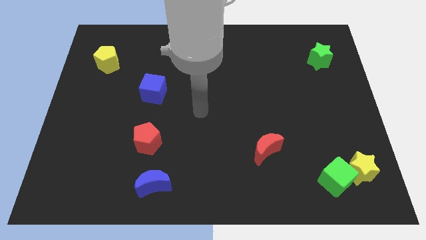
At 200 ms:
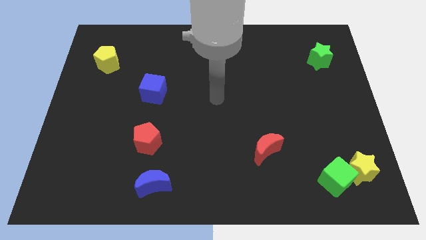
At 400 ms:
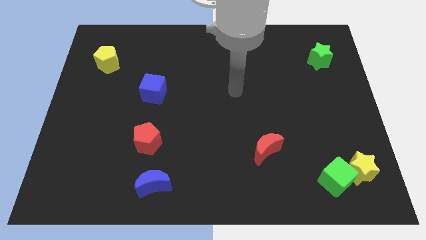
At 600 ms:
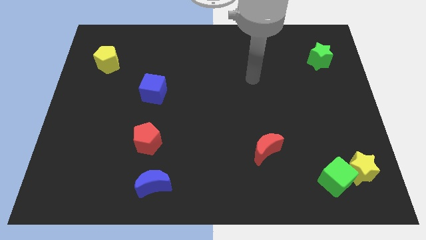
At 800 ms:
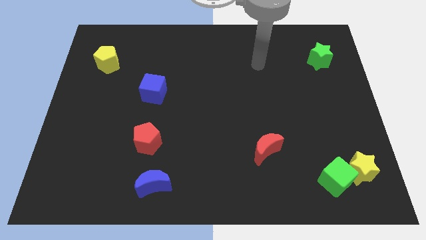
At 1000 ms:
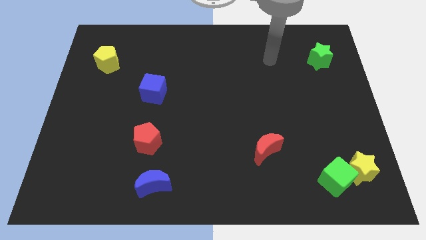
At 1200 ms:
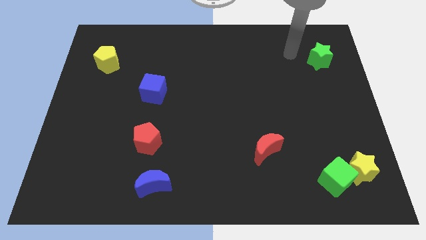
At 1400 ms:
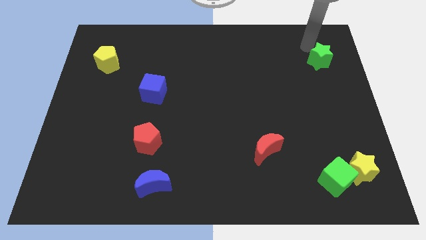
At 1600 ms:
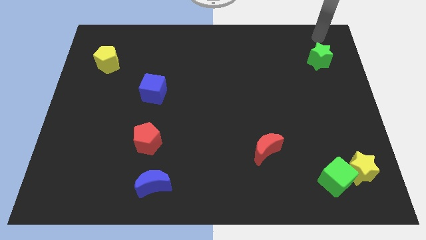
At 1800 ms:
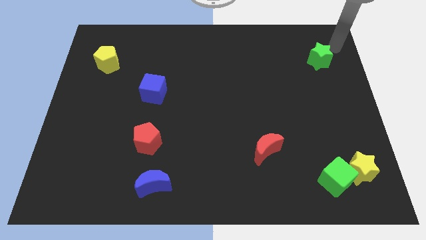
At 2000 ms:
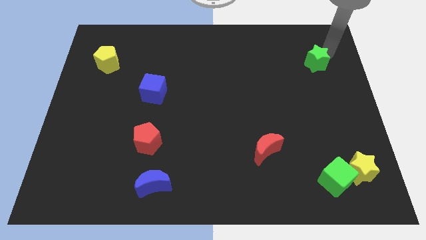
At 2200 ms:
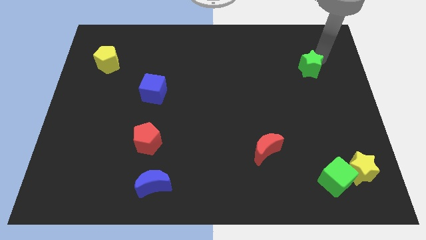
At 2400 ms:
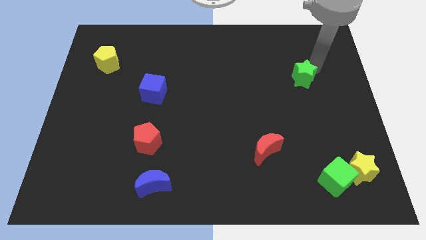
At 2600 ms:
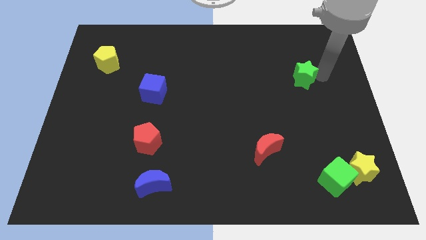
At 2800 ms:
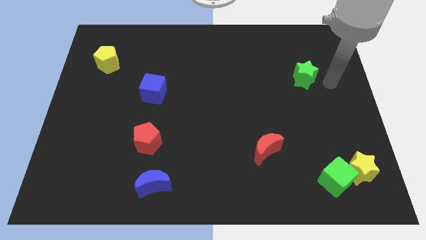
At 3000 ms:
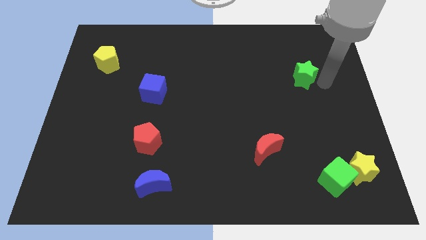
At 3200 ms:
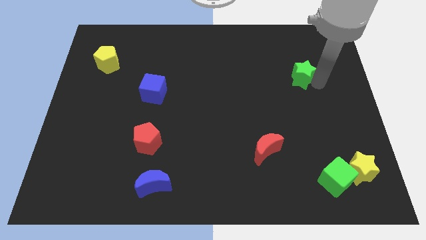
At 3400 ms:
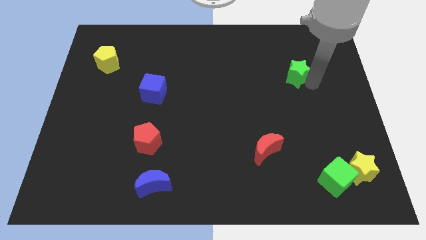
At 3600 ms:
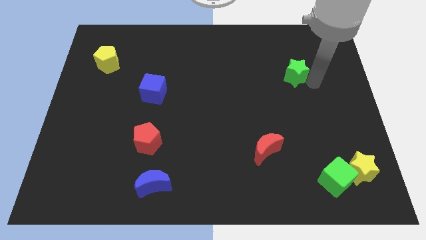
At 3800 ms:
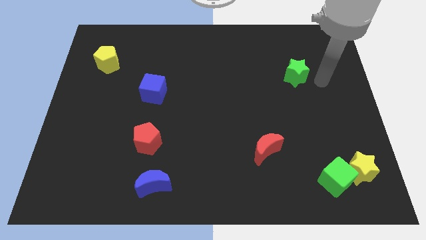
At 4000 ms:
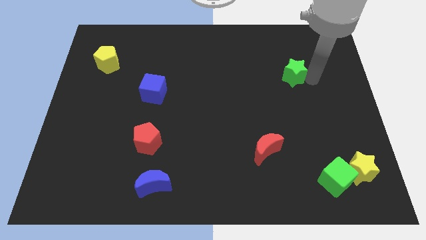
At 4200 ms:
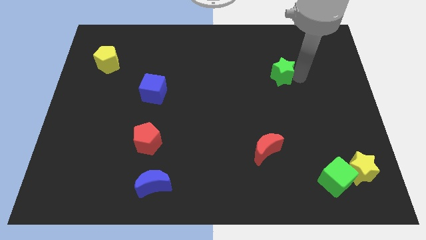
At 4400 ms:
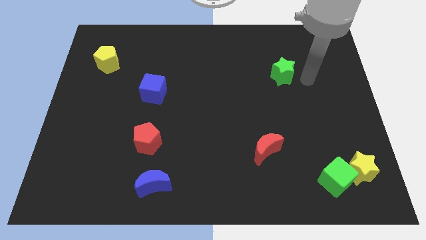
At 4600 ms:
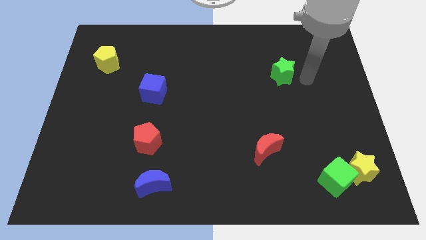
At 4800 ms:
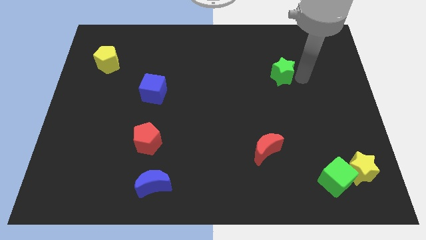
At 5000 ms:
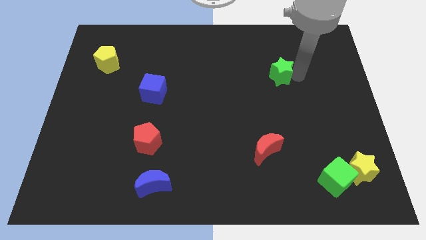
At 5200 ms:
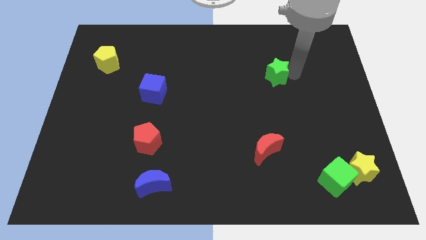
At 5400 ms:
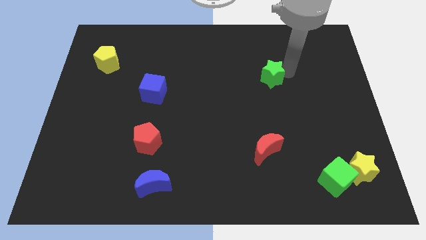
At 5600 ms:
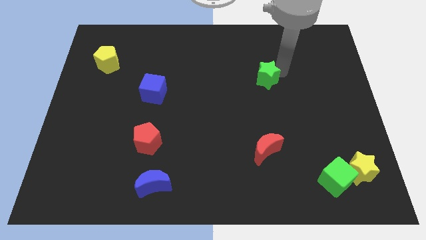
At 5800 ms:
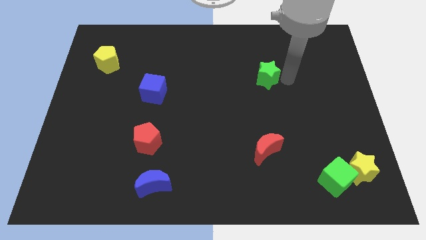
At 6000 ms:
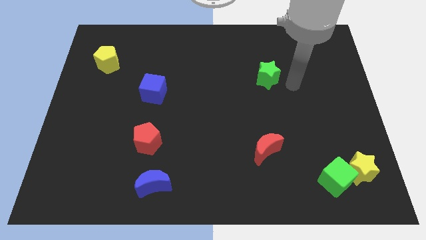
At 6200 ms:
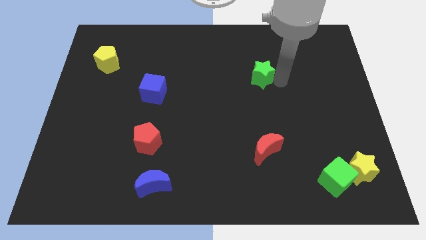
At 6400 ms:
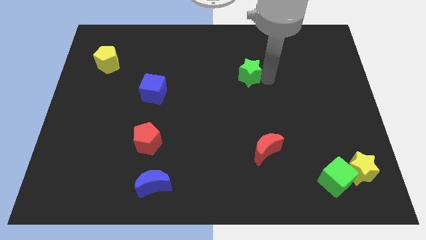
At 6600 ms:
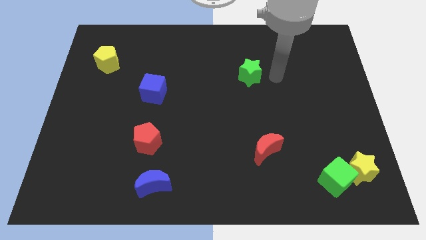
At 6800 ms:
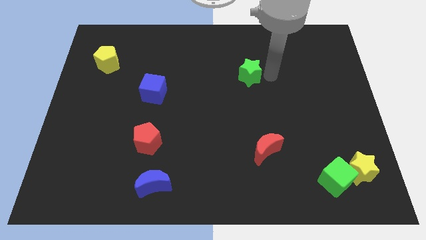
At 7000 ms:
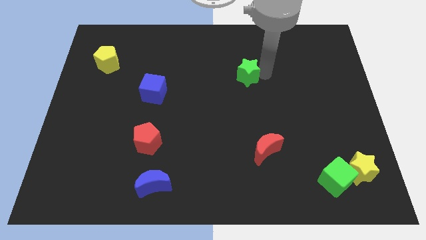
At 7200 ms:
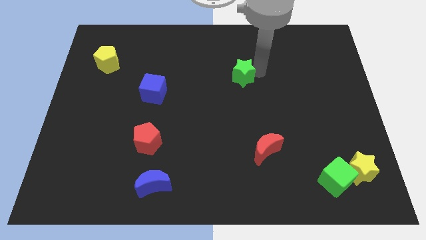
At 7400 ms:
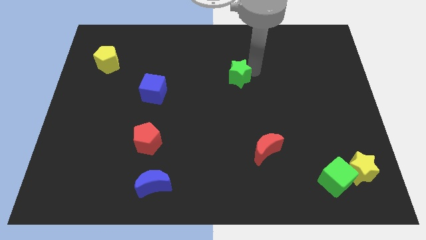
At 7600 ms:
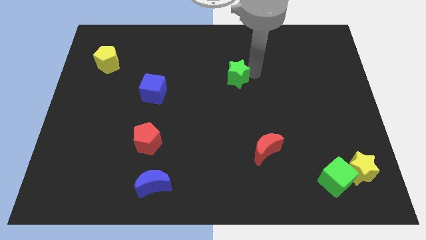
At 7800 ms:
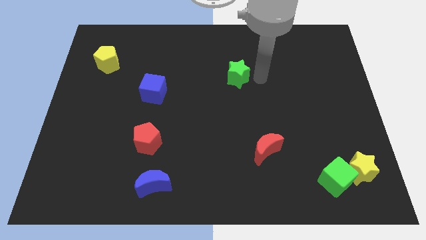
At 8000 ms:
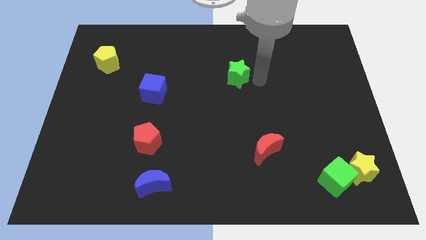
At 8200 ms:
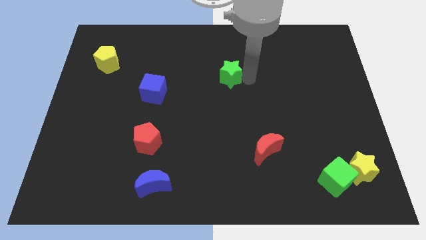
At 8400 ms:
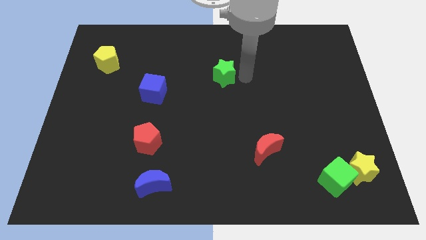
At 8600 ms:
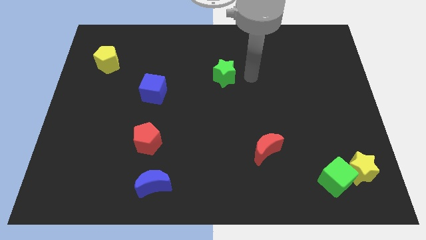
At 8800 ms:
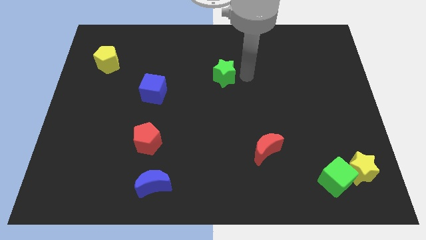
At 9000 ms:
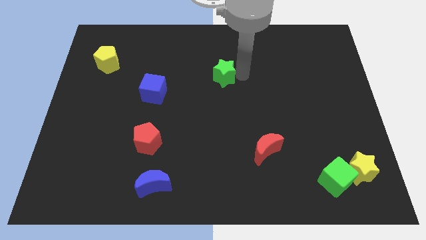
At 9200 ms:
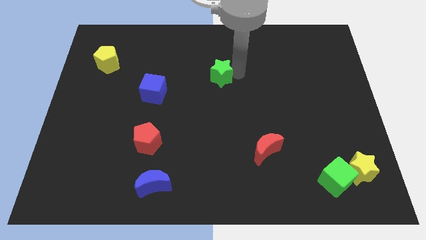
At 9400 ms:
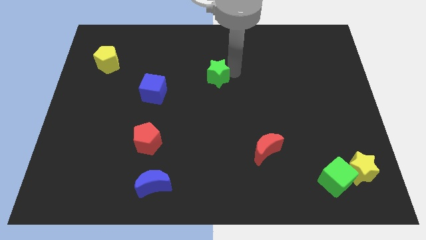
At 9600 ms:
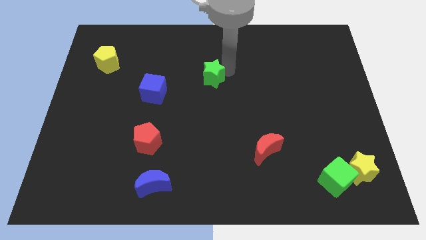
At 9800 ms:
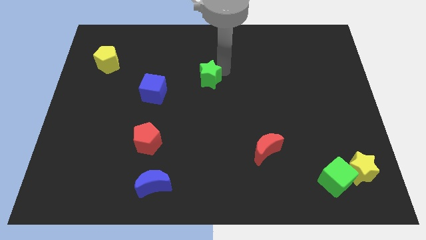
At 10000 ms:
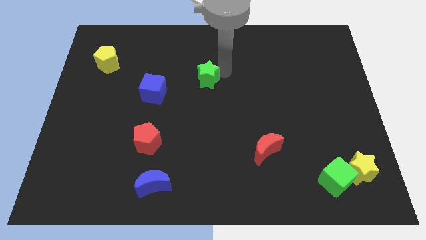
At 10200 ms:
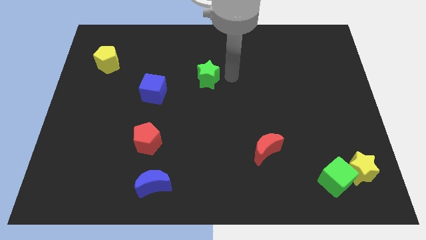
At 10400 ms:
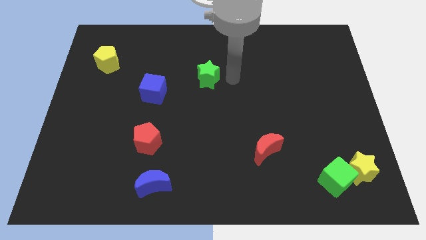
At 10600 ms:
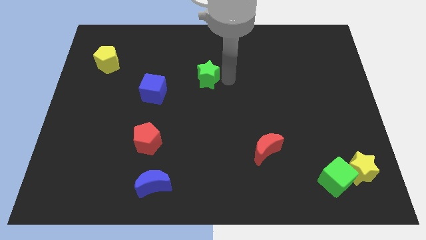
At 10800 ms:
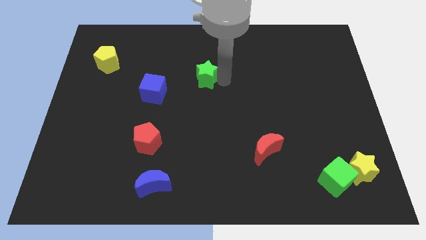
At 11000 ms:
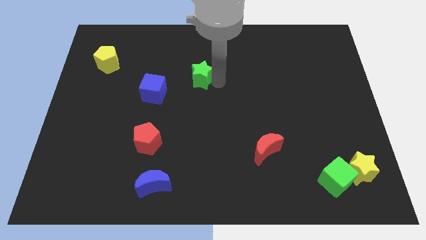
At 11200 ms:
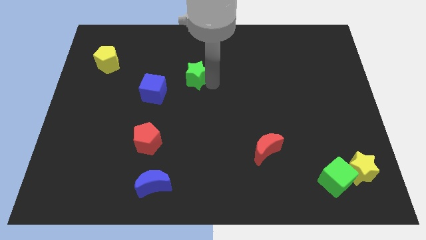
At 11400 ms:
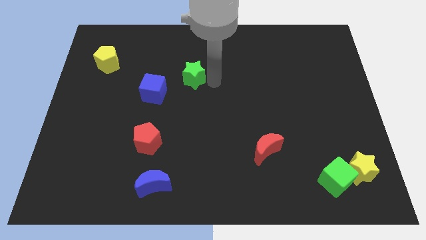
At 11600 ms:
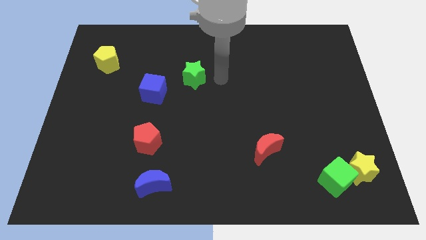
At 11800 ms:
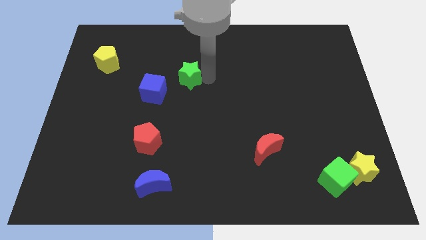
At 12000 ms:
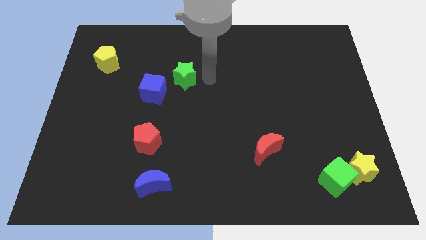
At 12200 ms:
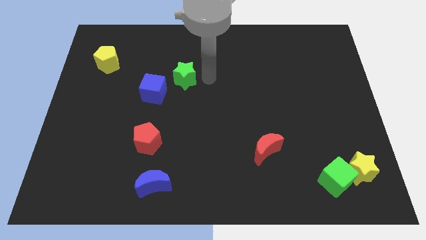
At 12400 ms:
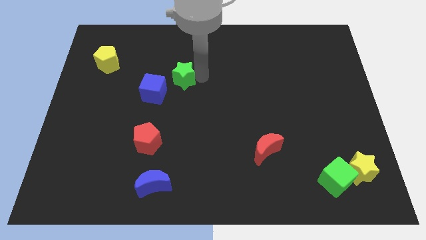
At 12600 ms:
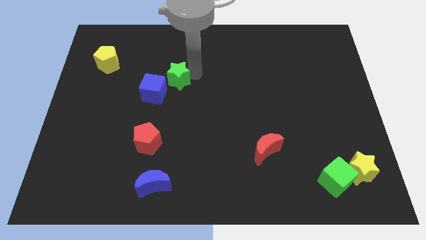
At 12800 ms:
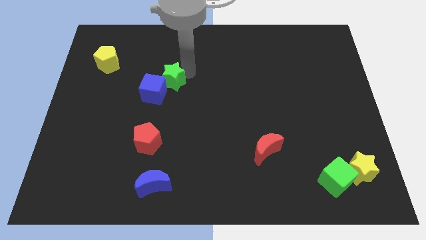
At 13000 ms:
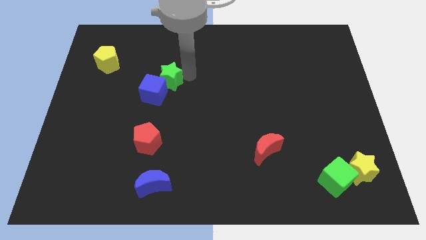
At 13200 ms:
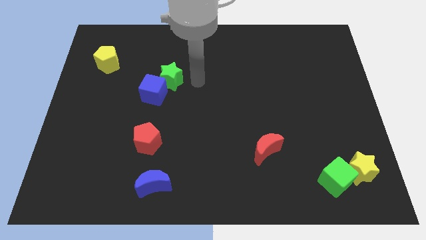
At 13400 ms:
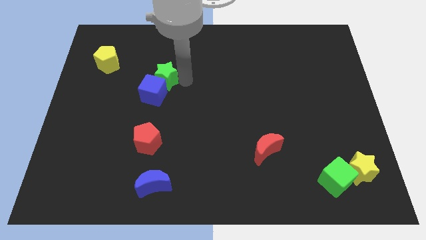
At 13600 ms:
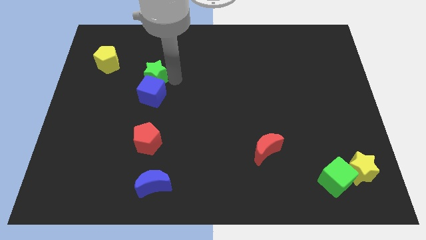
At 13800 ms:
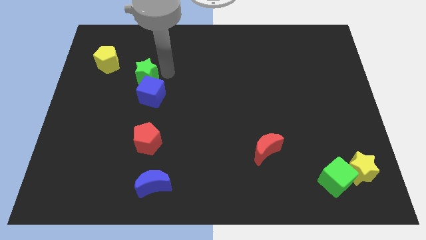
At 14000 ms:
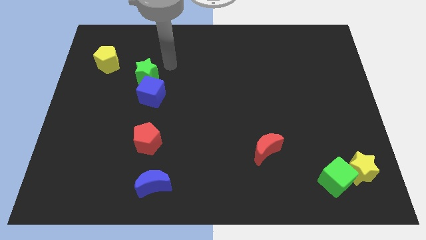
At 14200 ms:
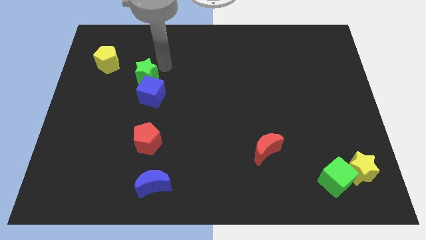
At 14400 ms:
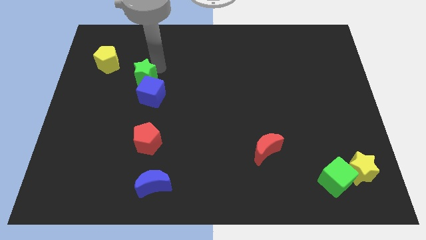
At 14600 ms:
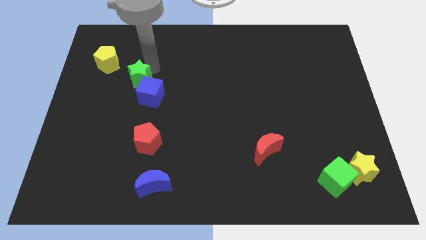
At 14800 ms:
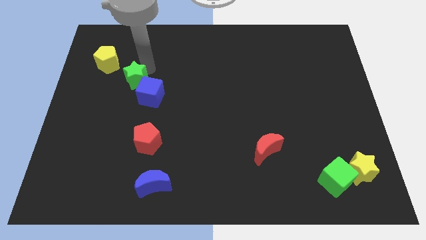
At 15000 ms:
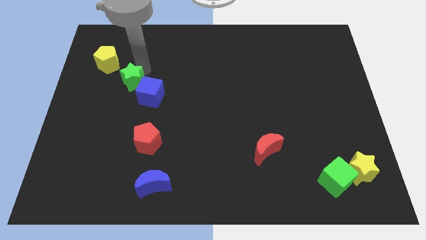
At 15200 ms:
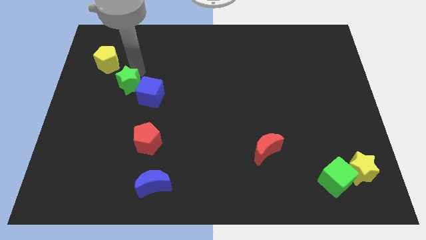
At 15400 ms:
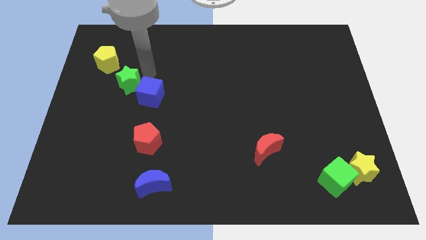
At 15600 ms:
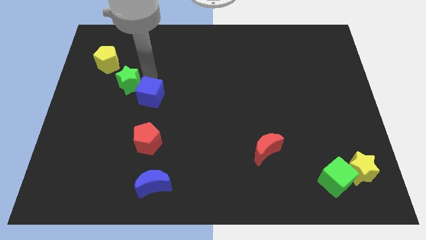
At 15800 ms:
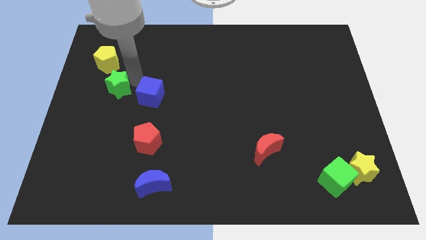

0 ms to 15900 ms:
slide the green star below the yellow pentagon
